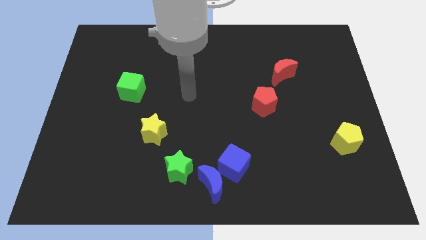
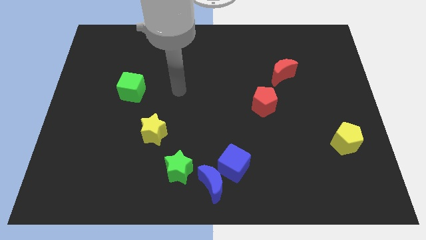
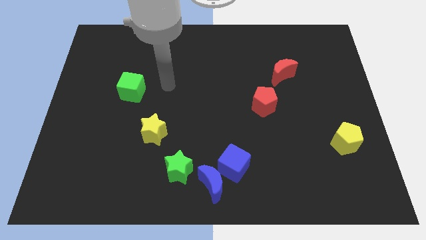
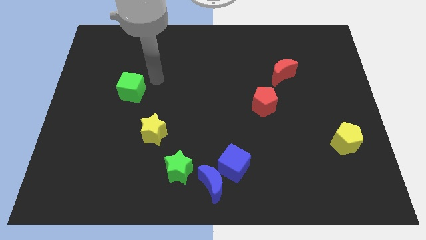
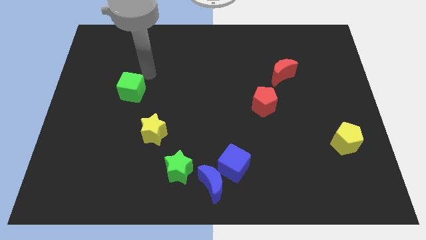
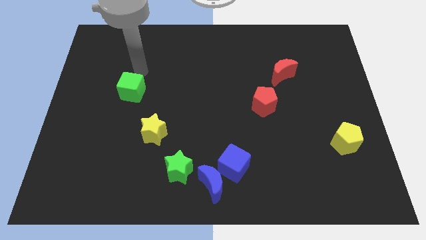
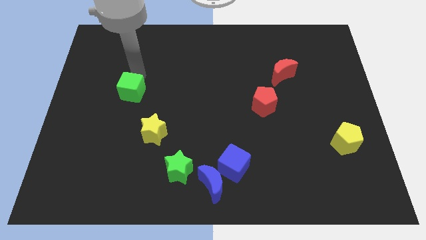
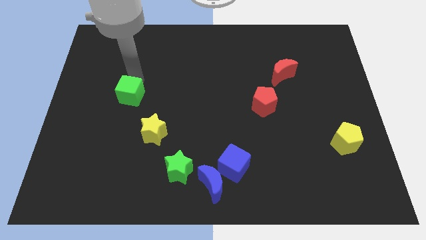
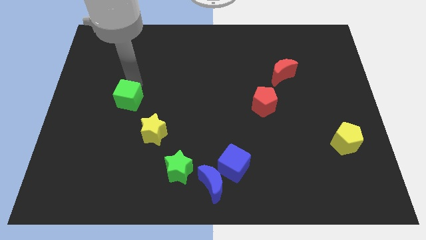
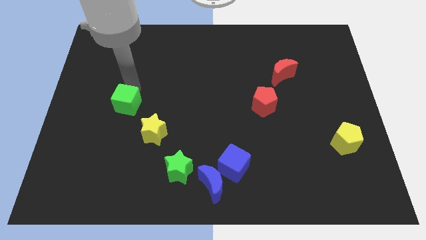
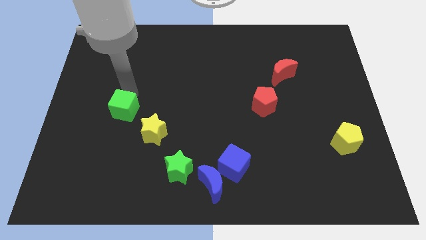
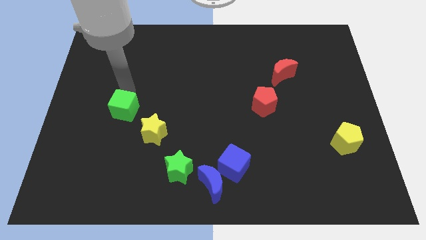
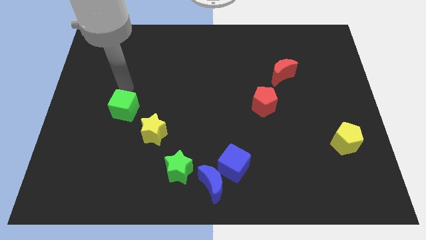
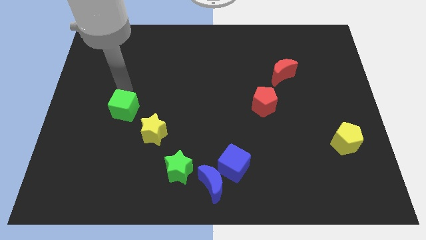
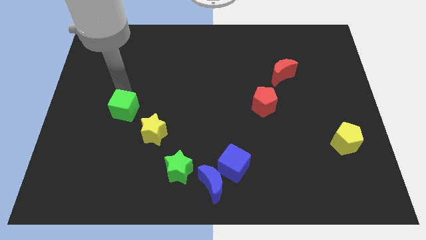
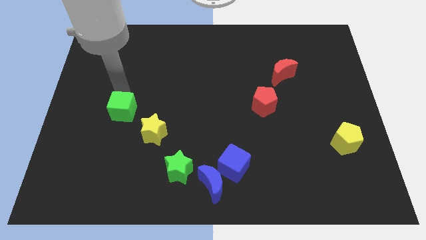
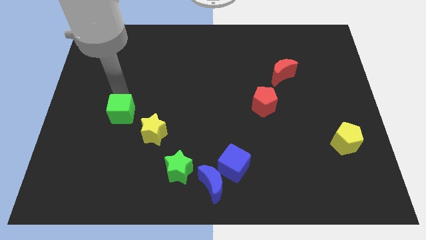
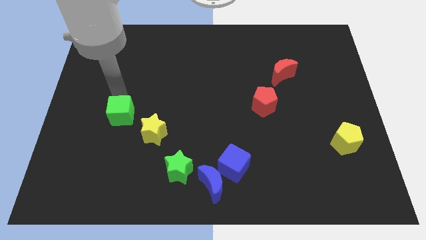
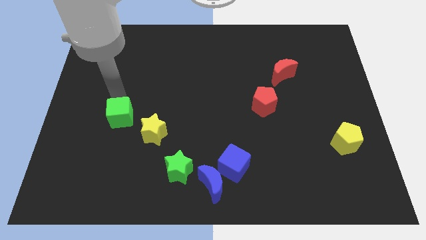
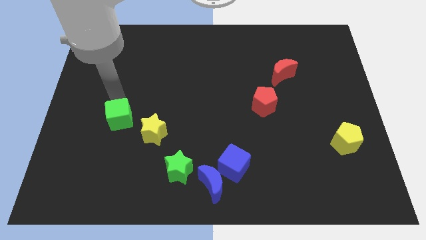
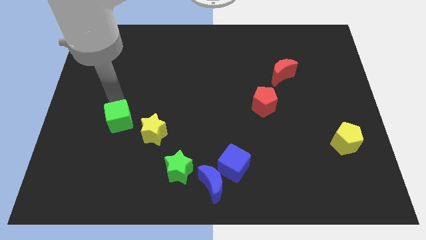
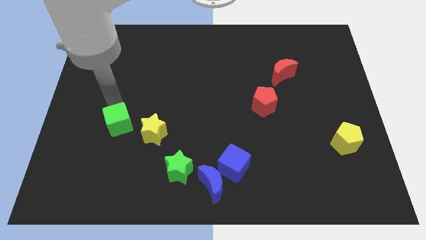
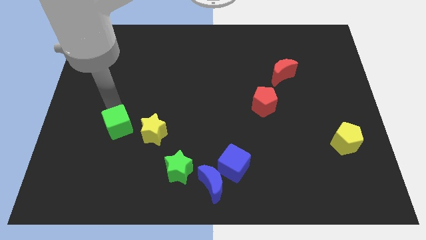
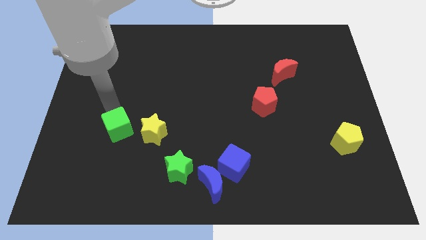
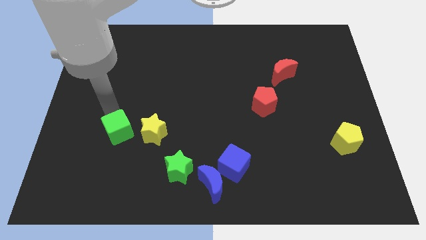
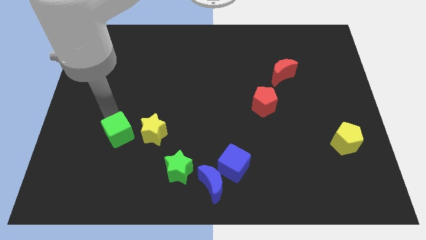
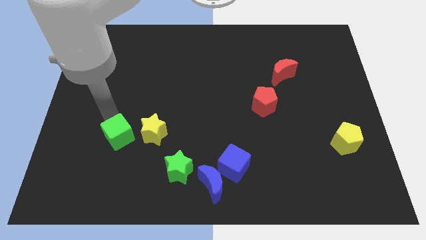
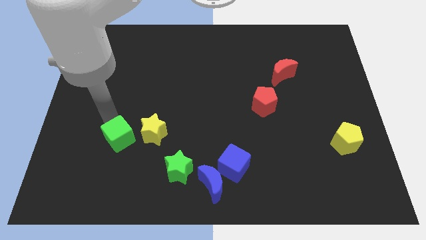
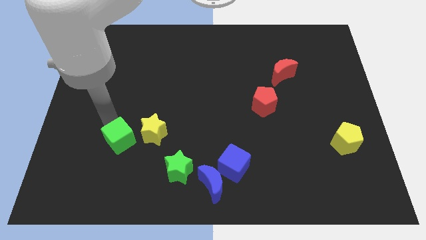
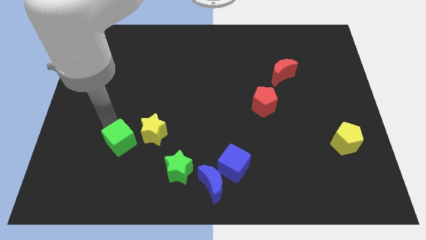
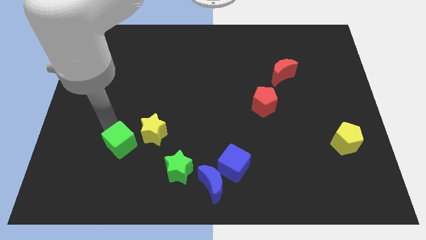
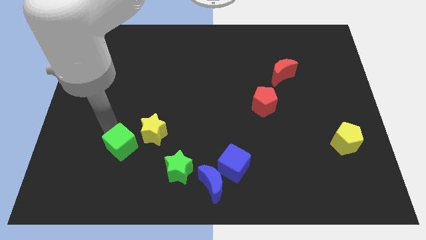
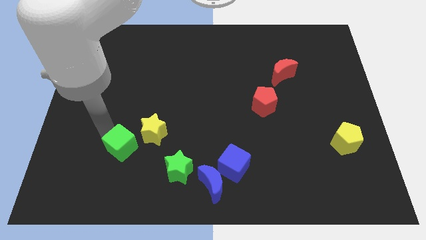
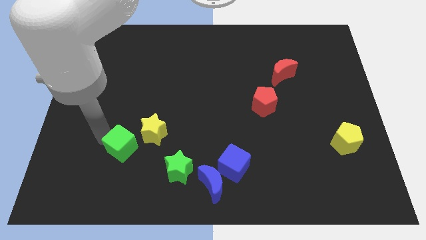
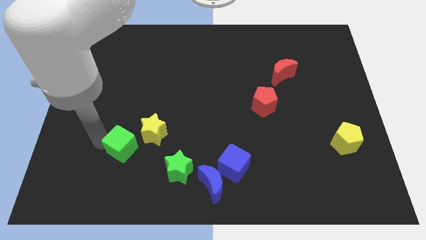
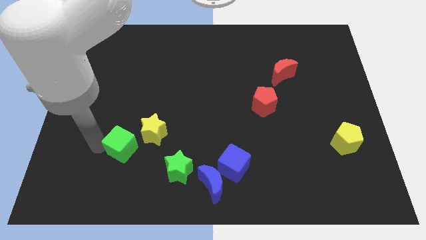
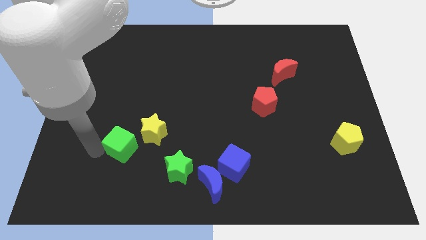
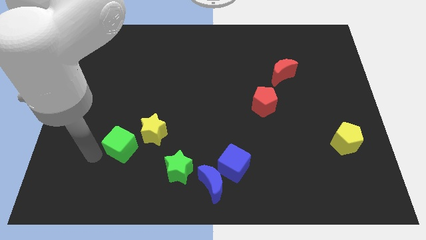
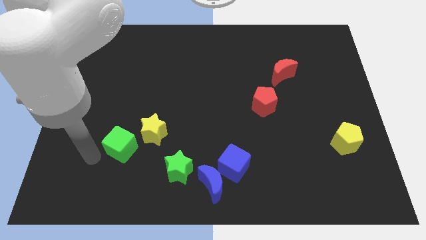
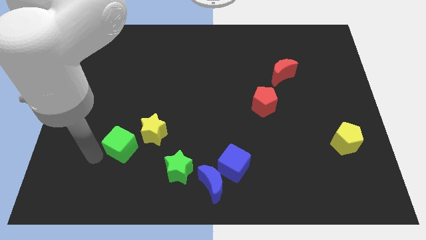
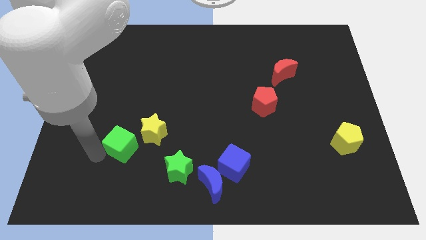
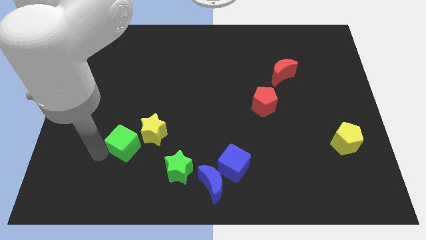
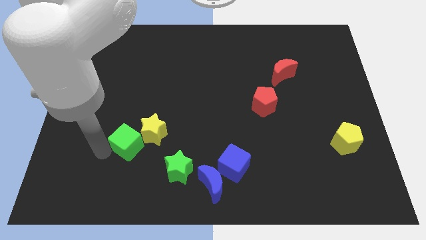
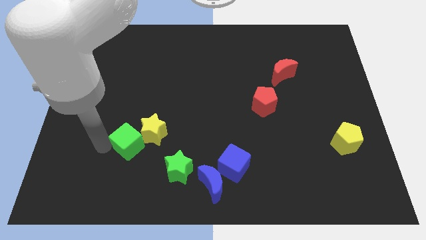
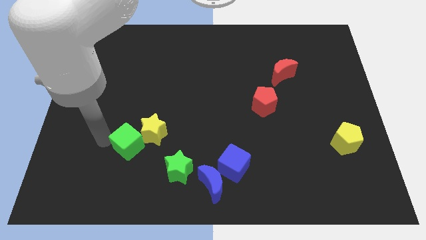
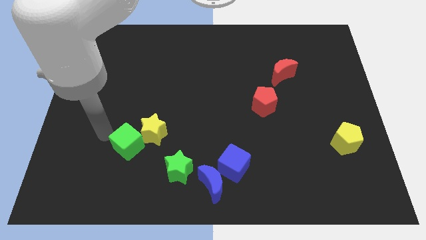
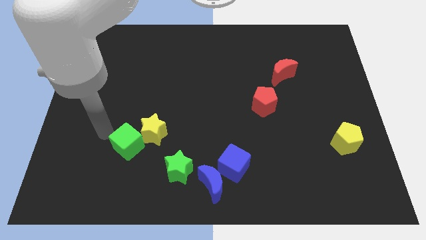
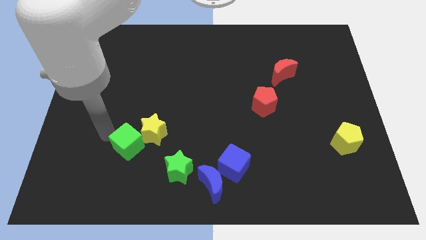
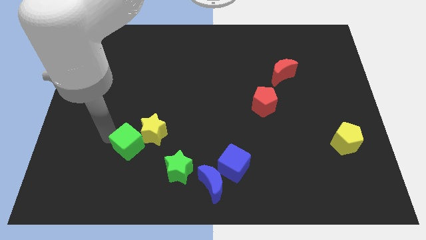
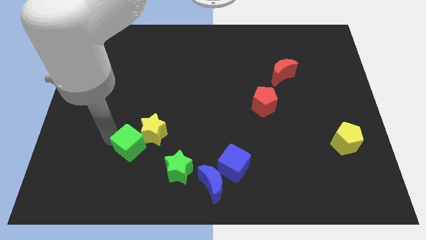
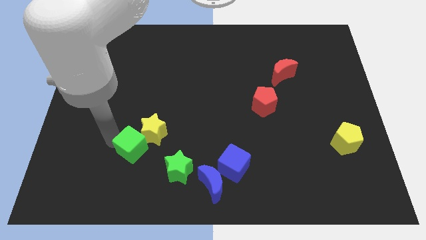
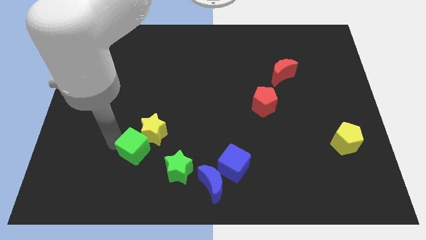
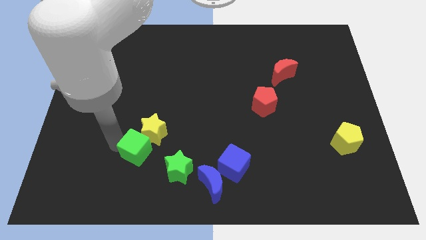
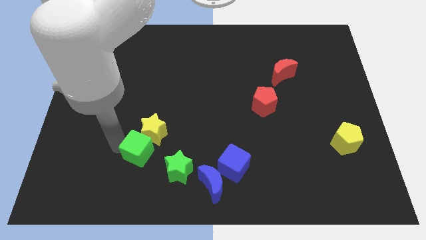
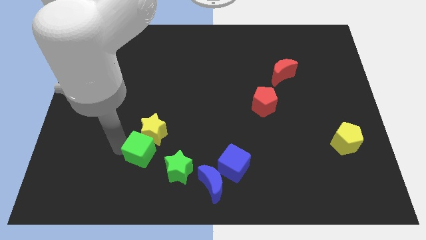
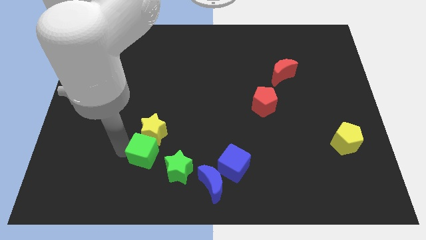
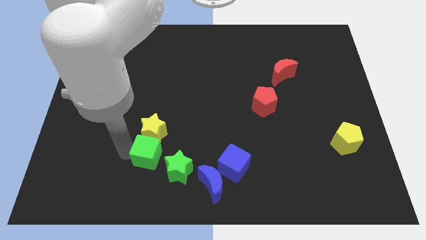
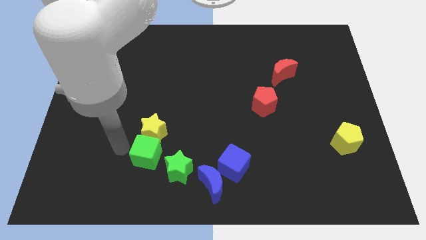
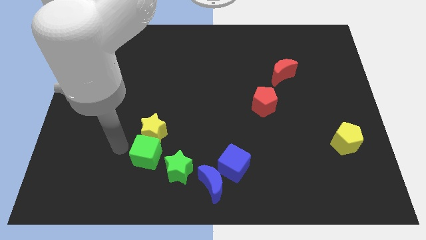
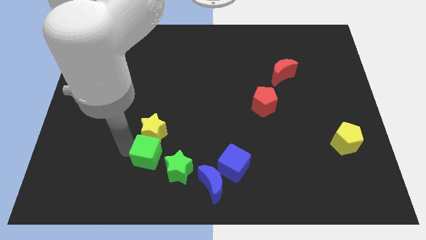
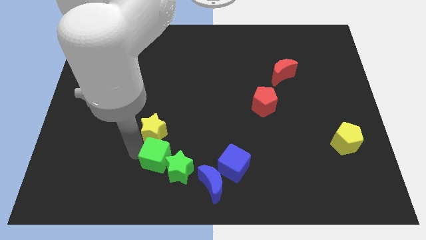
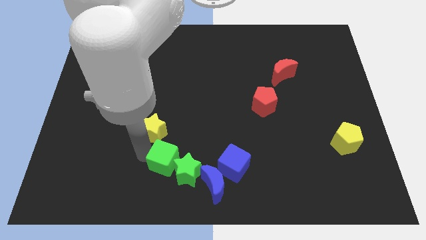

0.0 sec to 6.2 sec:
move the green cube to the left of the blue cube
